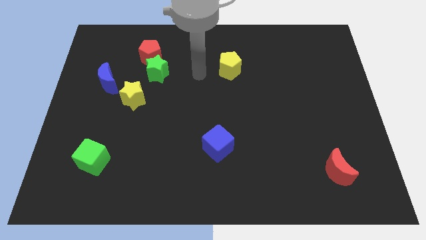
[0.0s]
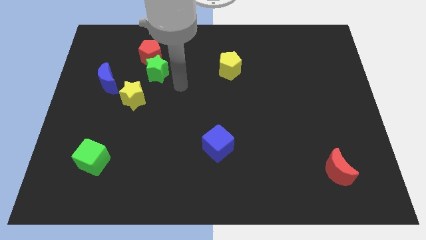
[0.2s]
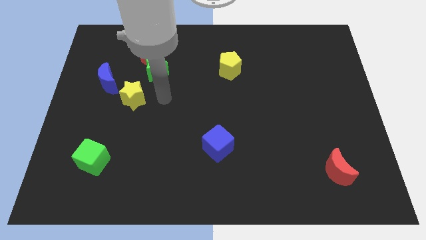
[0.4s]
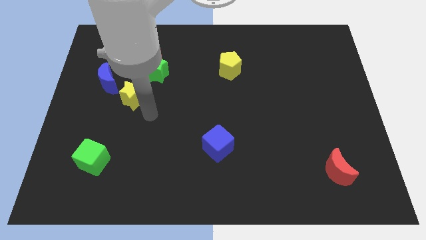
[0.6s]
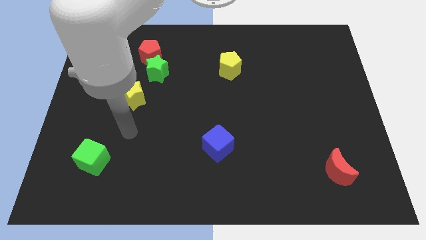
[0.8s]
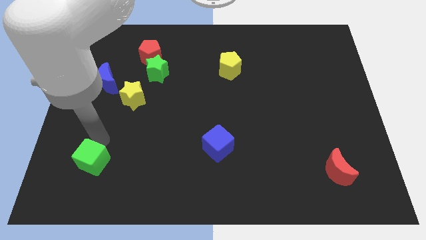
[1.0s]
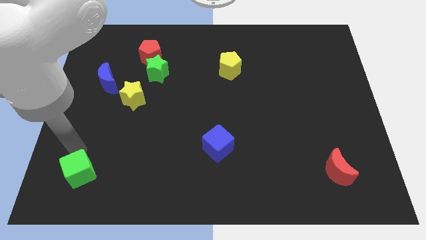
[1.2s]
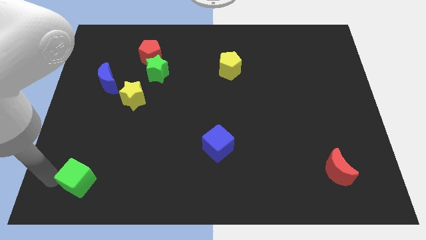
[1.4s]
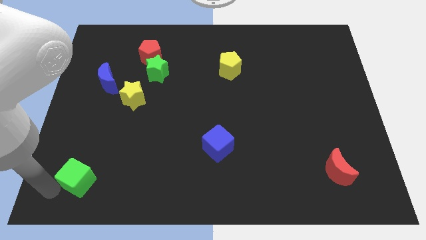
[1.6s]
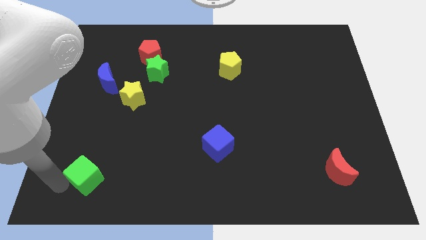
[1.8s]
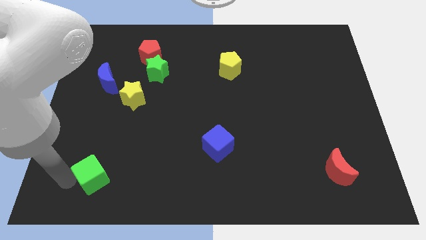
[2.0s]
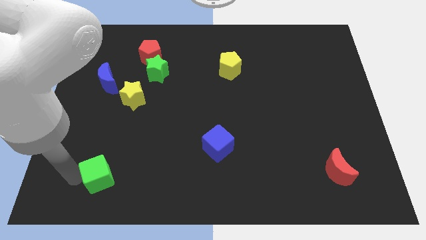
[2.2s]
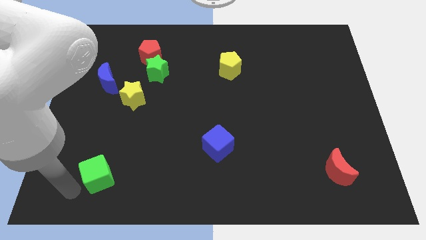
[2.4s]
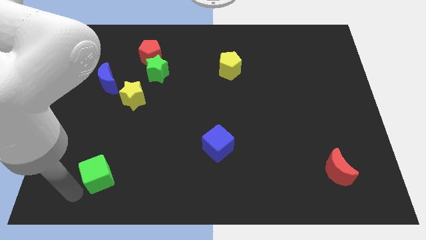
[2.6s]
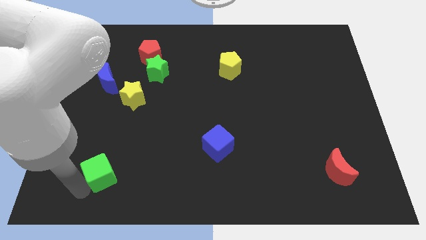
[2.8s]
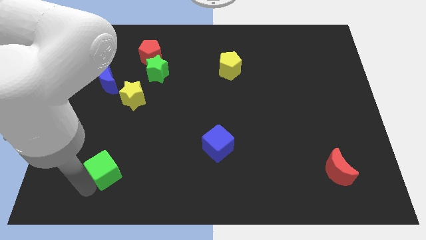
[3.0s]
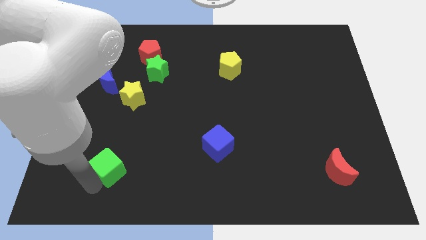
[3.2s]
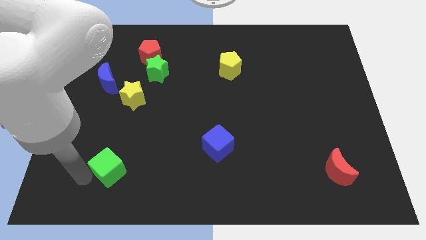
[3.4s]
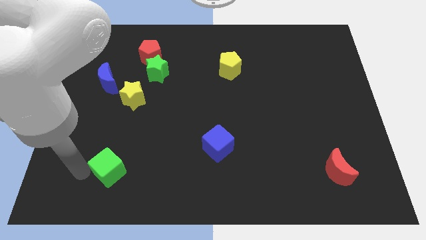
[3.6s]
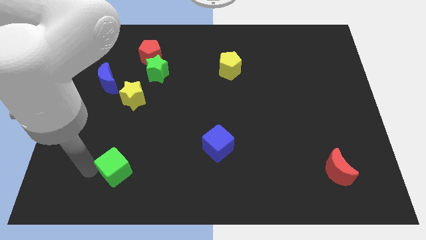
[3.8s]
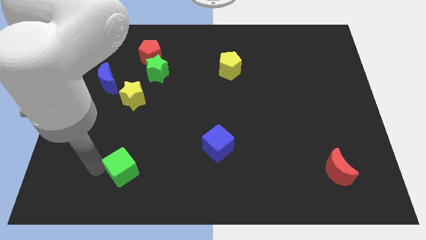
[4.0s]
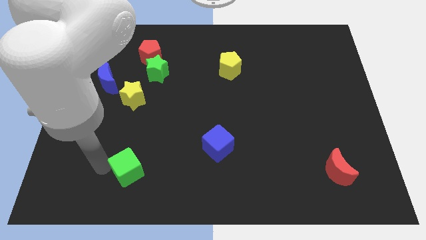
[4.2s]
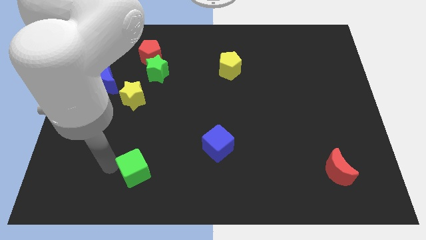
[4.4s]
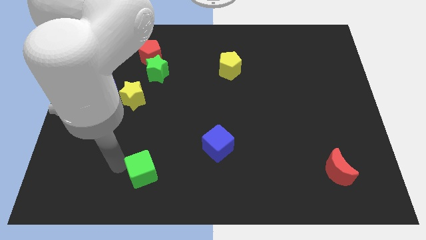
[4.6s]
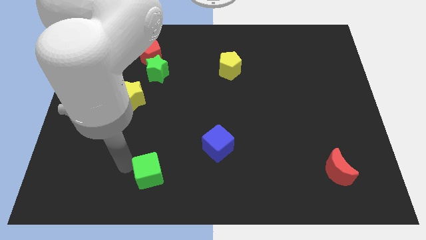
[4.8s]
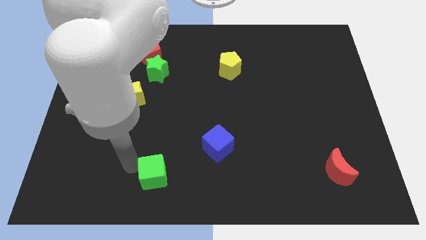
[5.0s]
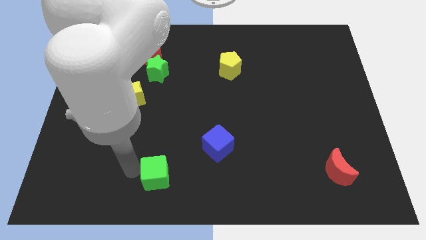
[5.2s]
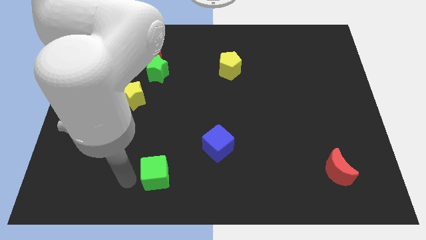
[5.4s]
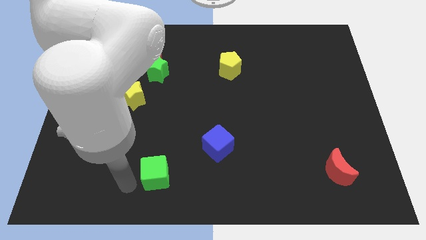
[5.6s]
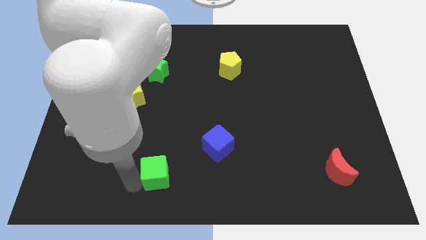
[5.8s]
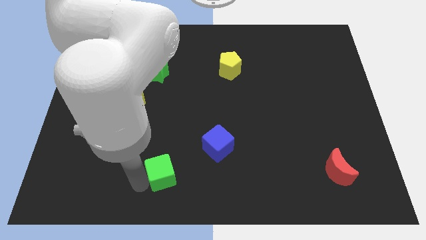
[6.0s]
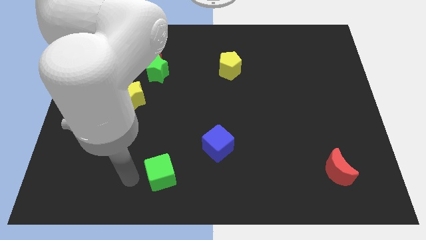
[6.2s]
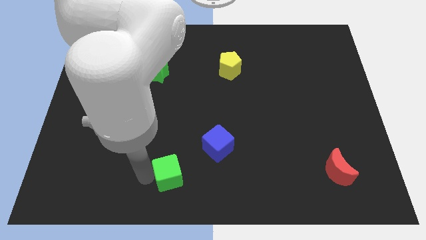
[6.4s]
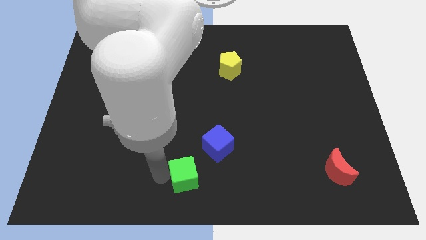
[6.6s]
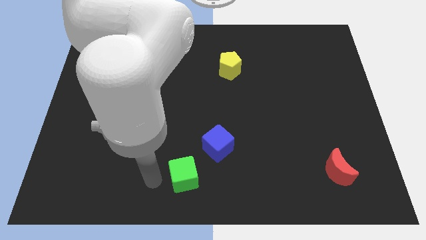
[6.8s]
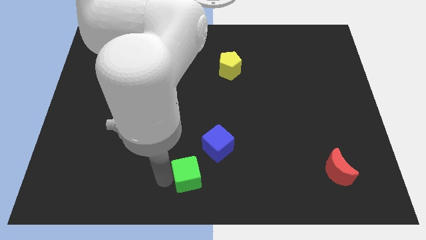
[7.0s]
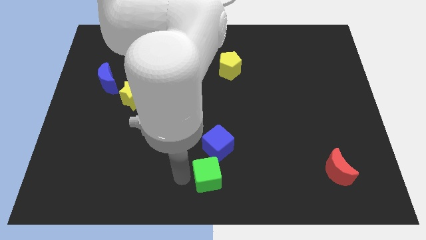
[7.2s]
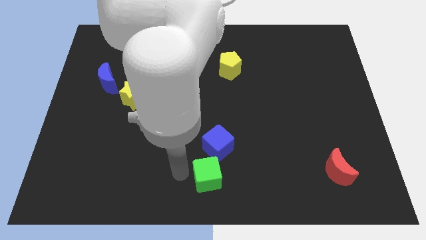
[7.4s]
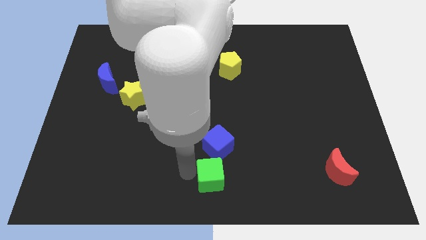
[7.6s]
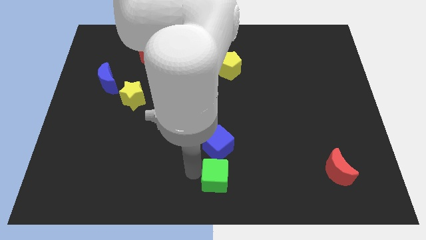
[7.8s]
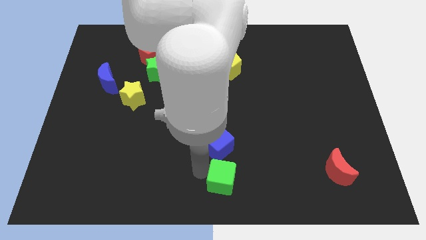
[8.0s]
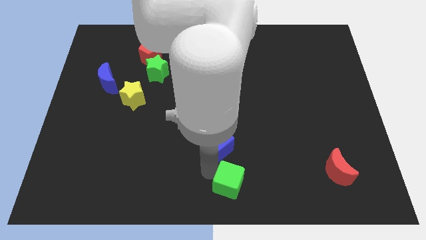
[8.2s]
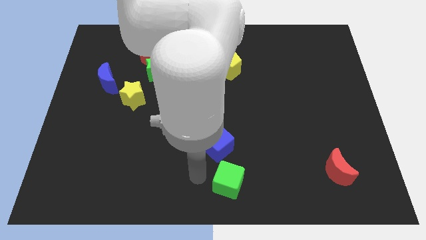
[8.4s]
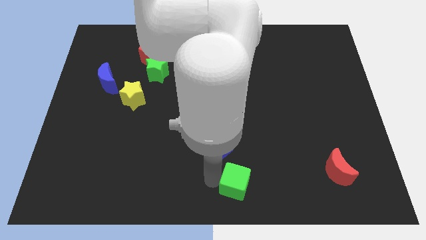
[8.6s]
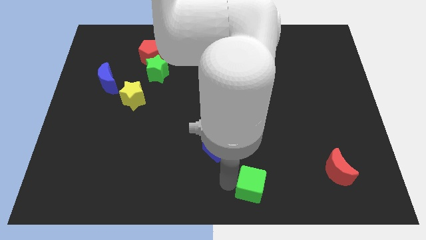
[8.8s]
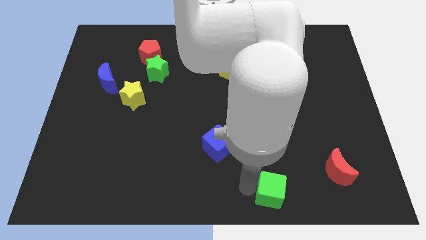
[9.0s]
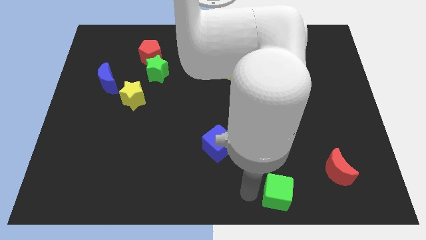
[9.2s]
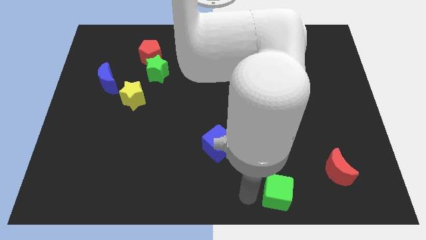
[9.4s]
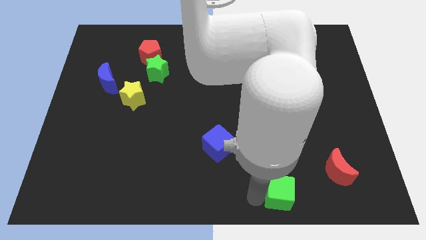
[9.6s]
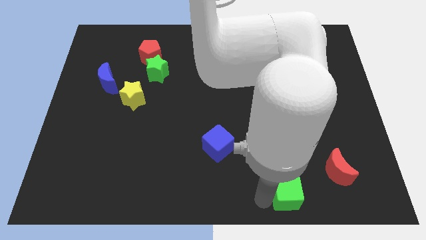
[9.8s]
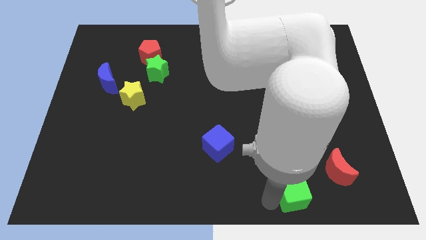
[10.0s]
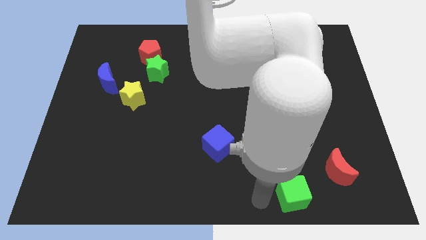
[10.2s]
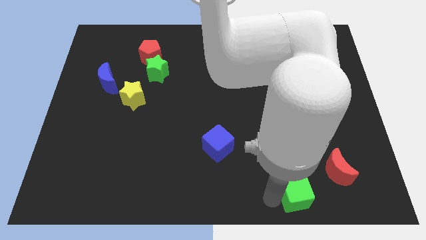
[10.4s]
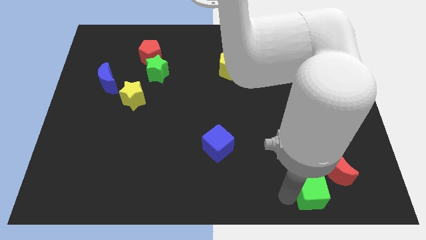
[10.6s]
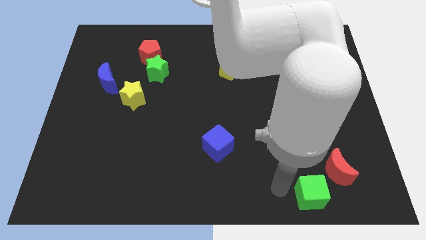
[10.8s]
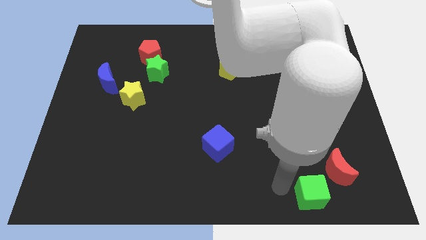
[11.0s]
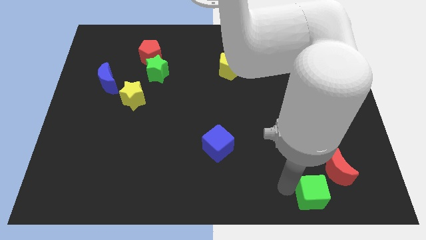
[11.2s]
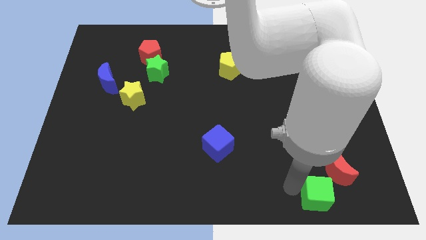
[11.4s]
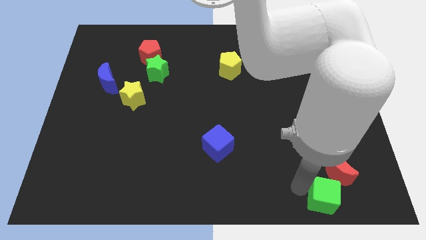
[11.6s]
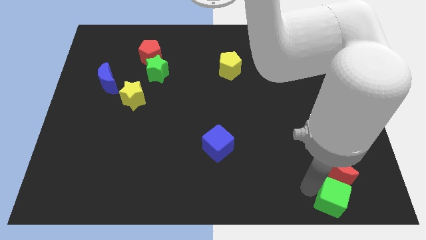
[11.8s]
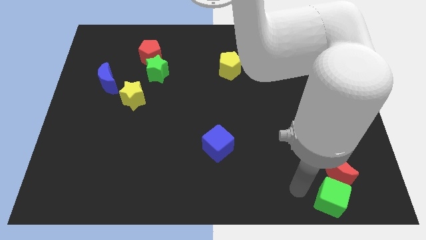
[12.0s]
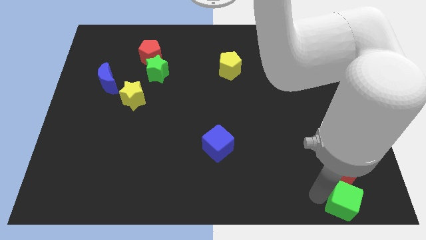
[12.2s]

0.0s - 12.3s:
put the green cube to the bottom right
